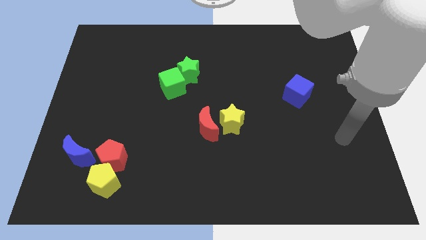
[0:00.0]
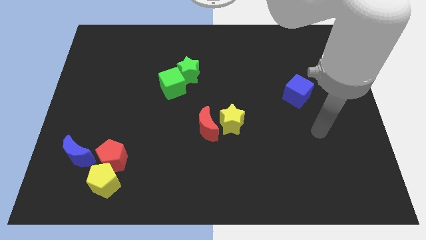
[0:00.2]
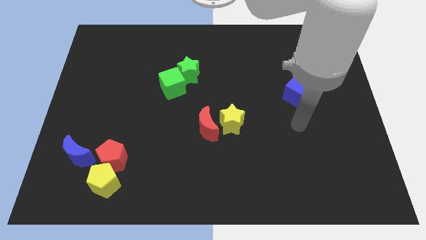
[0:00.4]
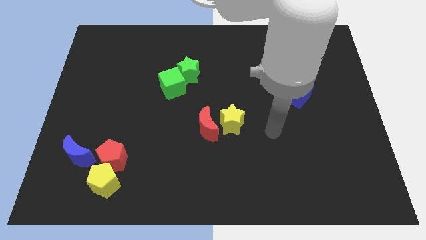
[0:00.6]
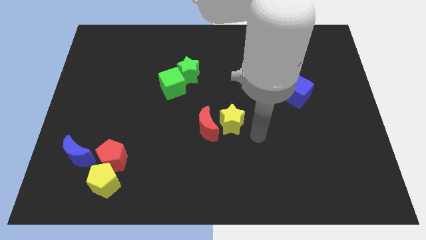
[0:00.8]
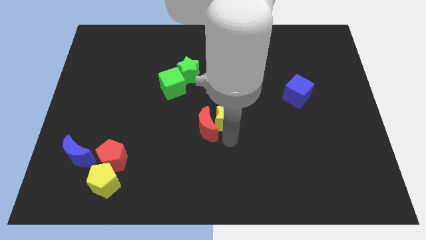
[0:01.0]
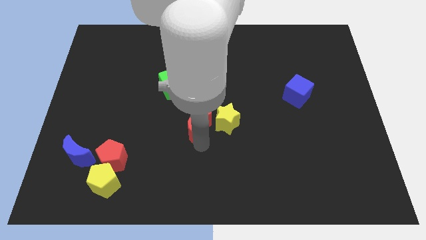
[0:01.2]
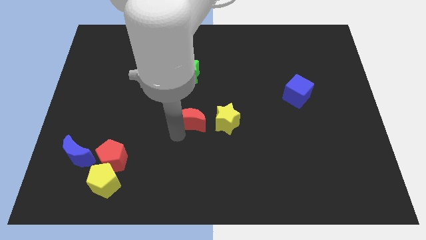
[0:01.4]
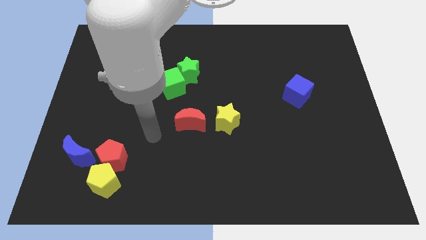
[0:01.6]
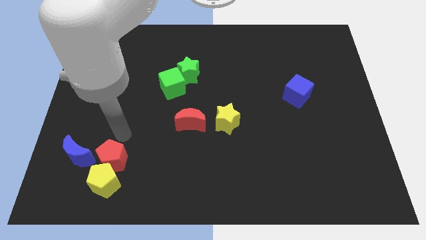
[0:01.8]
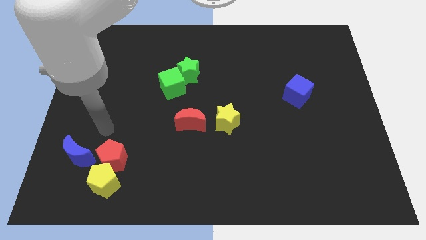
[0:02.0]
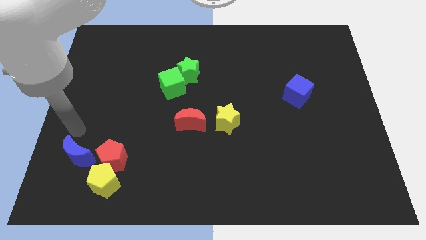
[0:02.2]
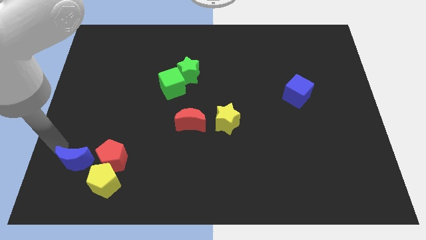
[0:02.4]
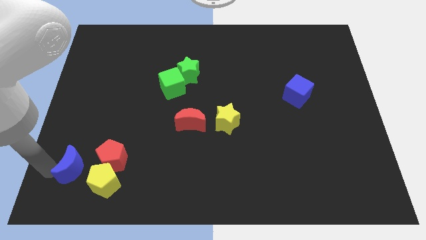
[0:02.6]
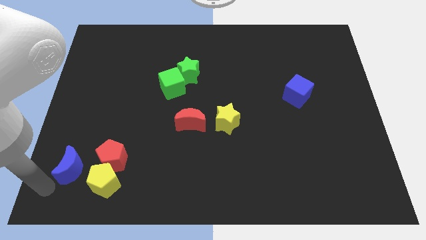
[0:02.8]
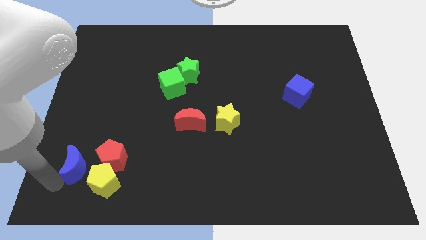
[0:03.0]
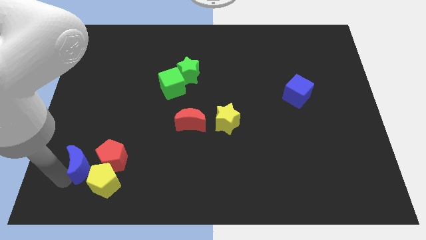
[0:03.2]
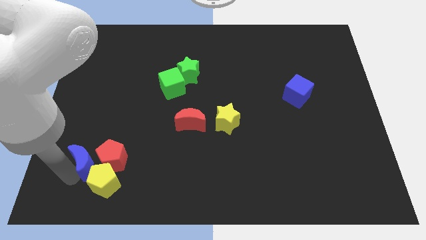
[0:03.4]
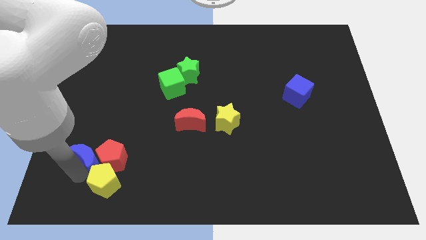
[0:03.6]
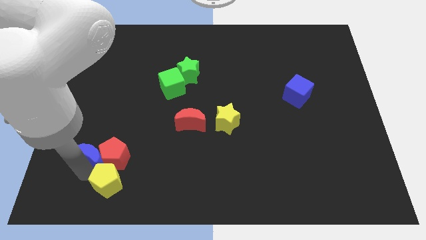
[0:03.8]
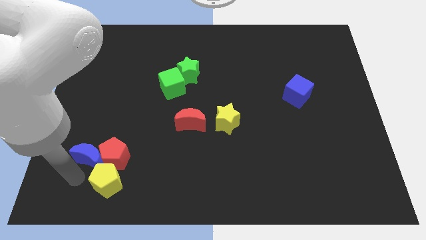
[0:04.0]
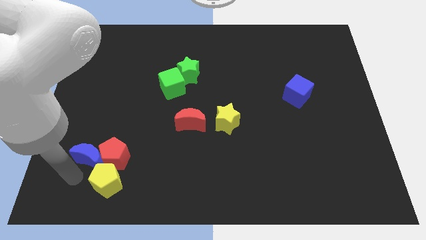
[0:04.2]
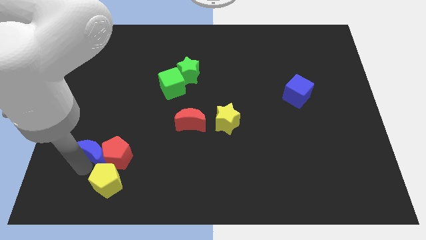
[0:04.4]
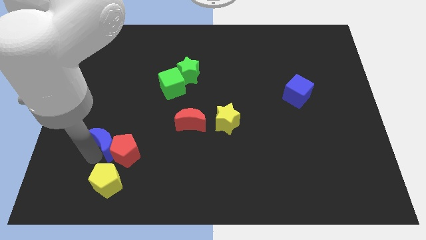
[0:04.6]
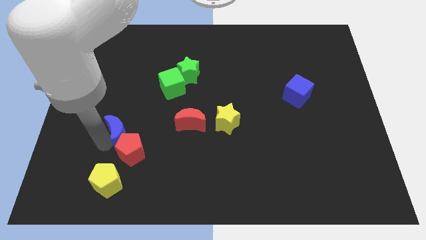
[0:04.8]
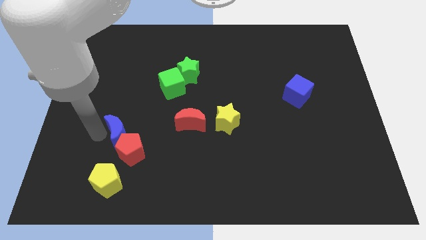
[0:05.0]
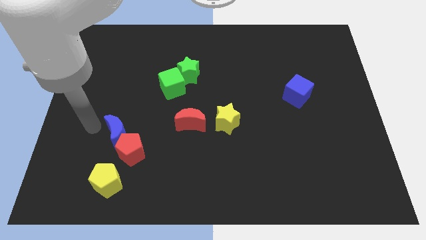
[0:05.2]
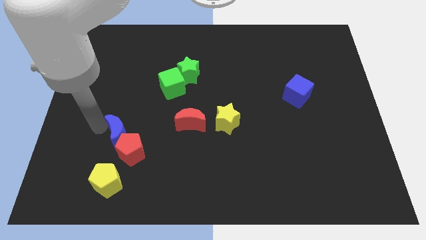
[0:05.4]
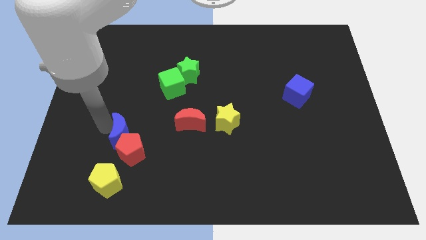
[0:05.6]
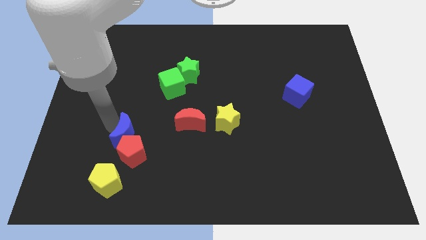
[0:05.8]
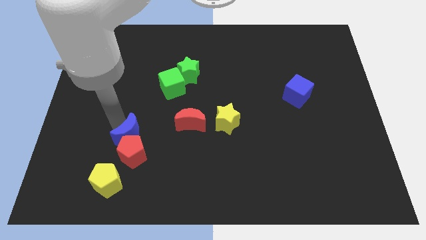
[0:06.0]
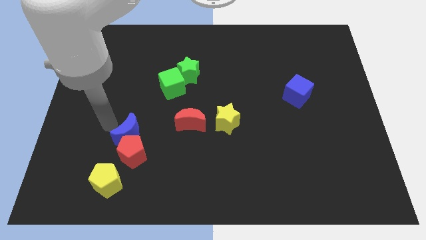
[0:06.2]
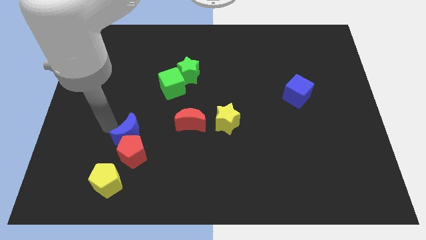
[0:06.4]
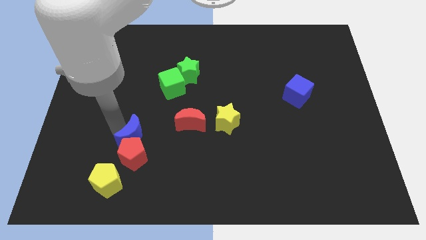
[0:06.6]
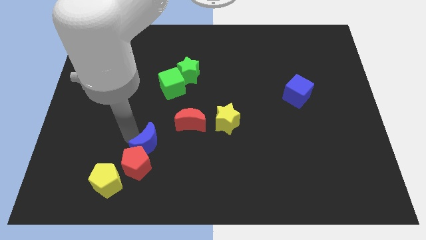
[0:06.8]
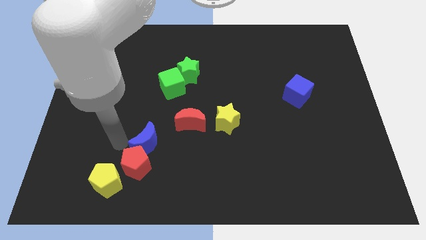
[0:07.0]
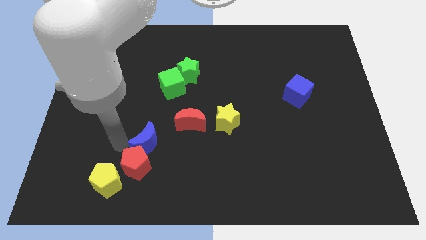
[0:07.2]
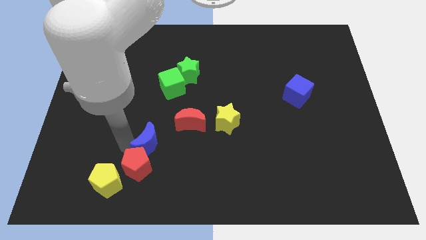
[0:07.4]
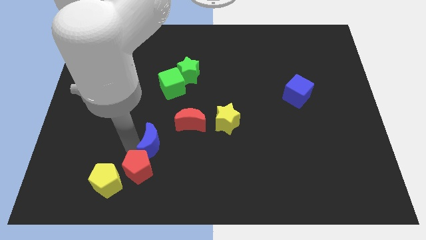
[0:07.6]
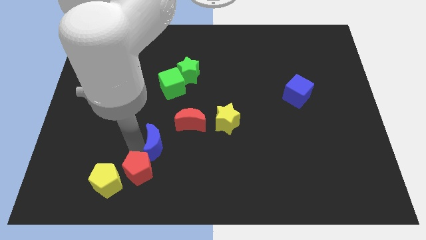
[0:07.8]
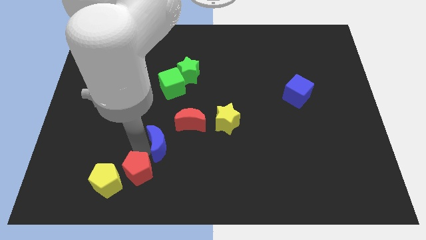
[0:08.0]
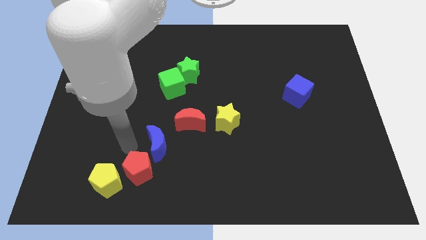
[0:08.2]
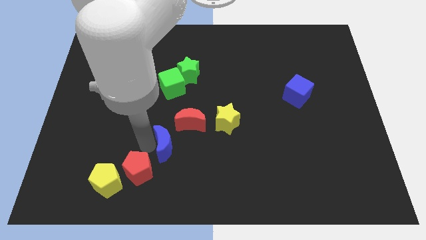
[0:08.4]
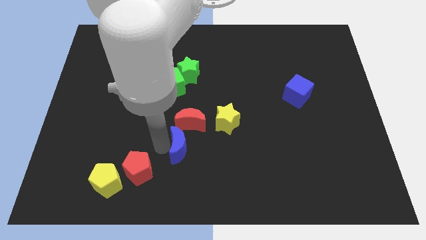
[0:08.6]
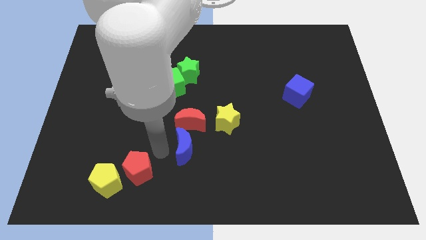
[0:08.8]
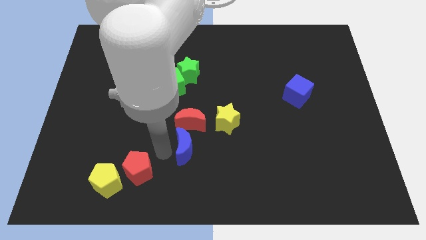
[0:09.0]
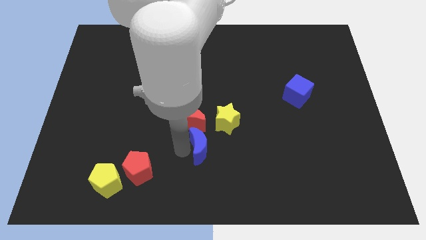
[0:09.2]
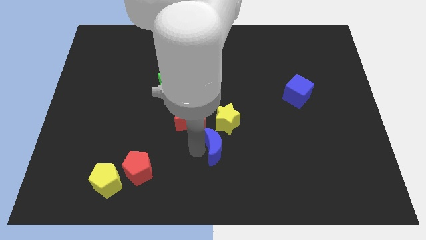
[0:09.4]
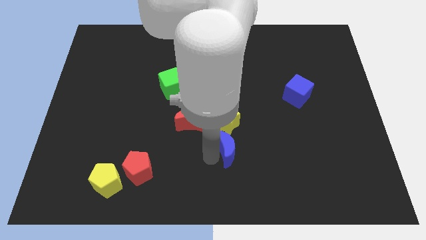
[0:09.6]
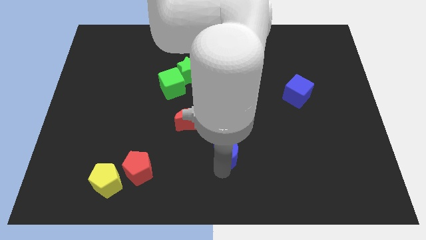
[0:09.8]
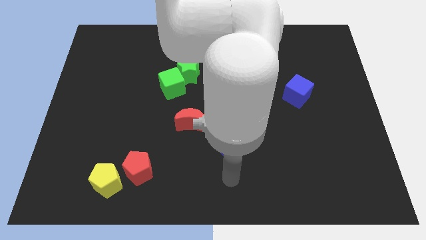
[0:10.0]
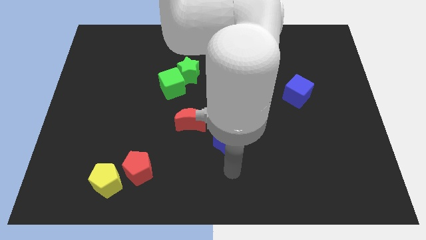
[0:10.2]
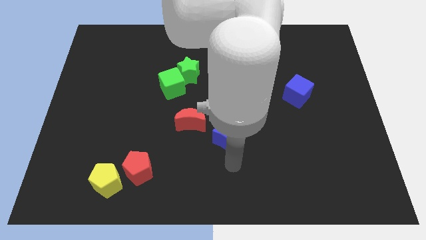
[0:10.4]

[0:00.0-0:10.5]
put the blue moon close to the yellow star

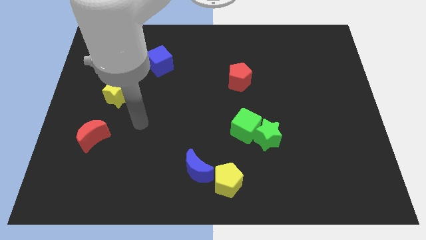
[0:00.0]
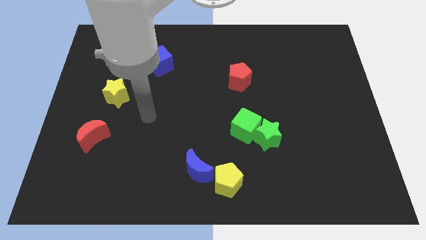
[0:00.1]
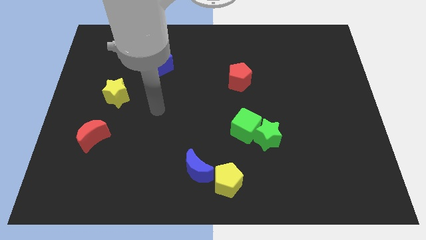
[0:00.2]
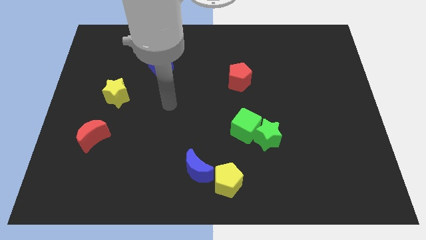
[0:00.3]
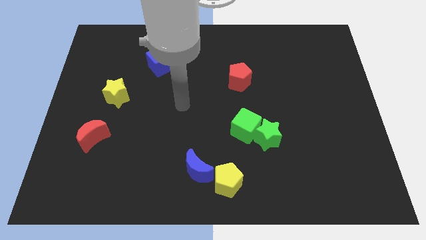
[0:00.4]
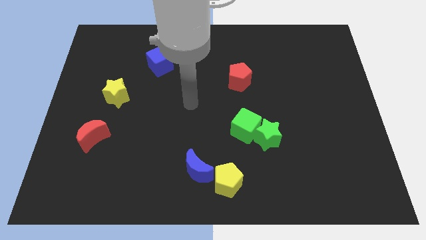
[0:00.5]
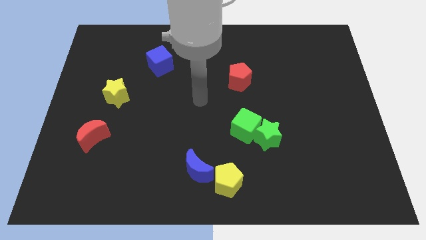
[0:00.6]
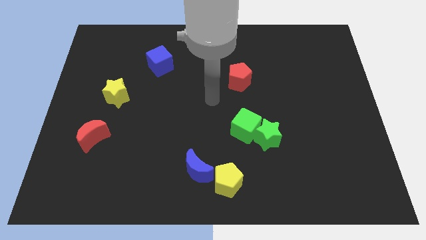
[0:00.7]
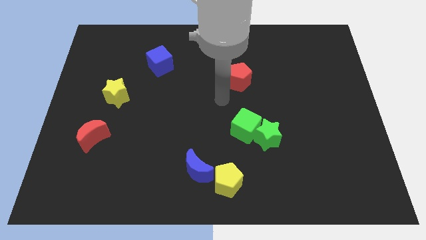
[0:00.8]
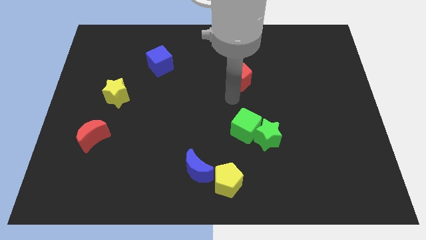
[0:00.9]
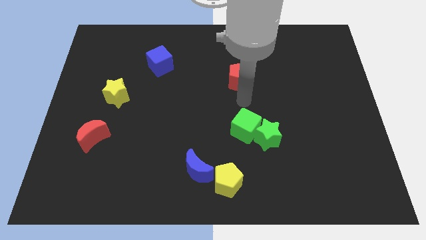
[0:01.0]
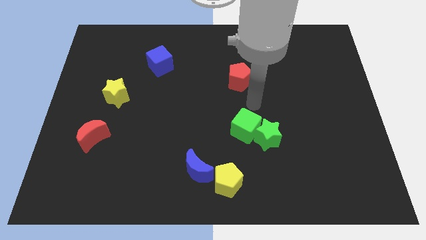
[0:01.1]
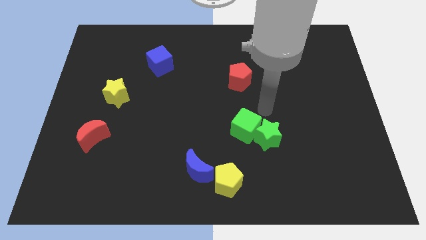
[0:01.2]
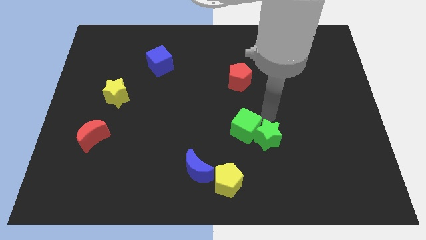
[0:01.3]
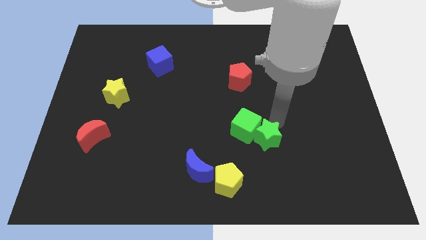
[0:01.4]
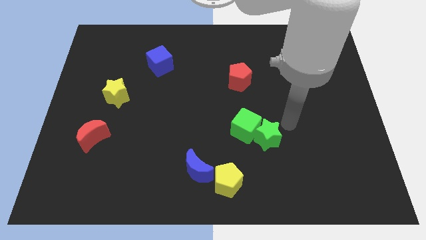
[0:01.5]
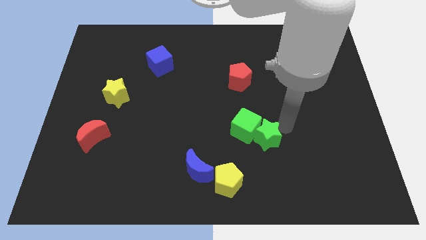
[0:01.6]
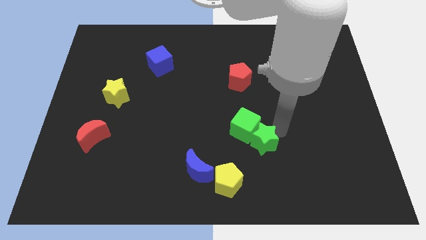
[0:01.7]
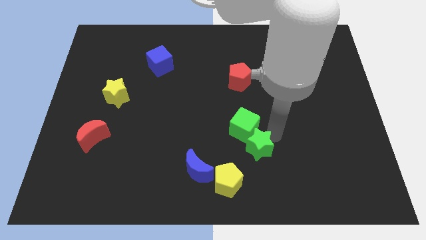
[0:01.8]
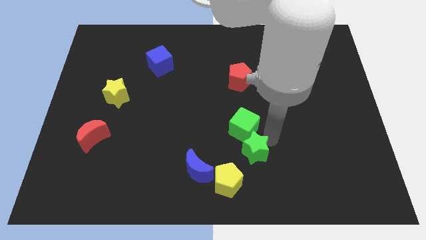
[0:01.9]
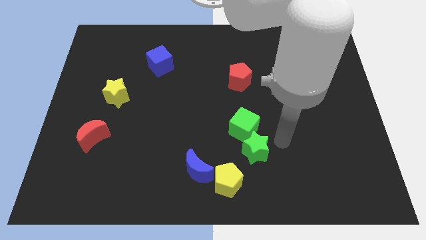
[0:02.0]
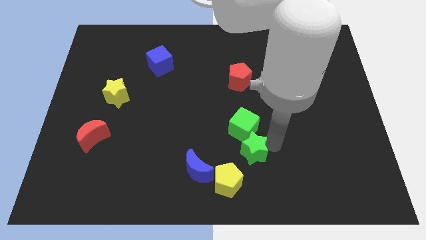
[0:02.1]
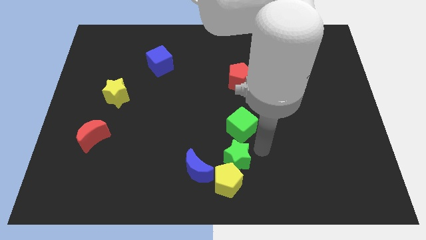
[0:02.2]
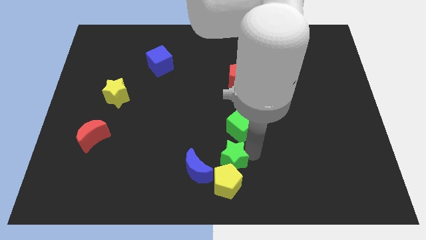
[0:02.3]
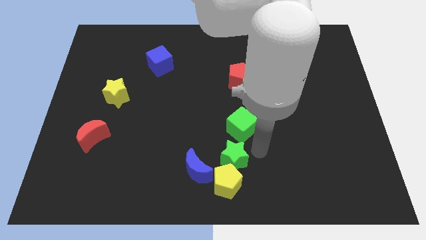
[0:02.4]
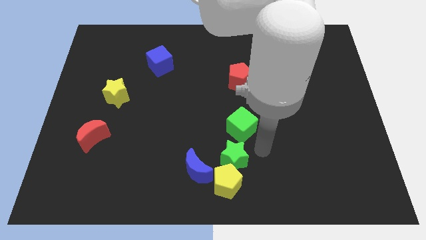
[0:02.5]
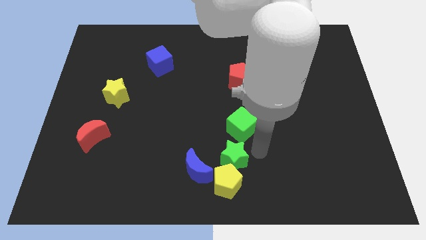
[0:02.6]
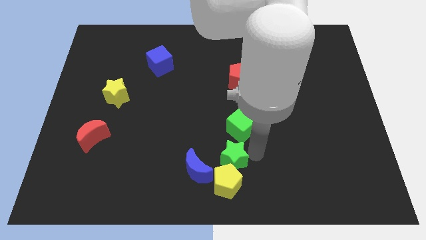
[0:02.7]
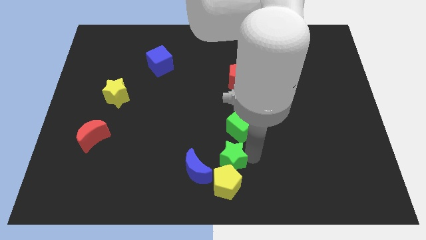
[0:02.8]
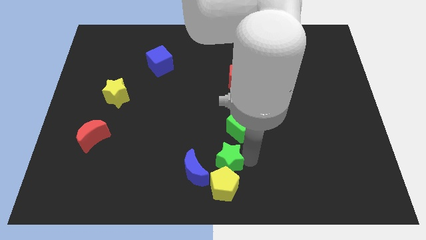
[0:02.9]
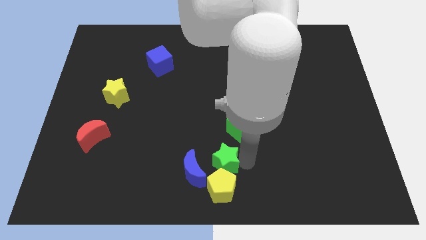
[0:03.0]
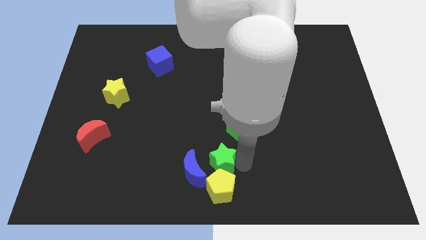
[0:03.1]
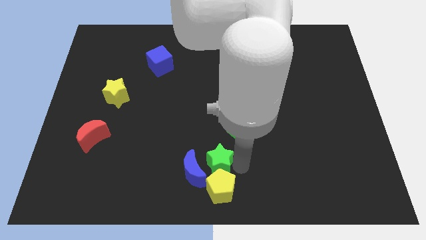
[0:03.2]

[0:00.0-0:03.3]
push the green star to the blue moon
